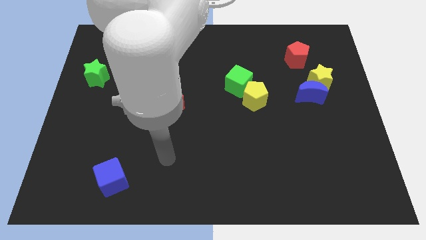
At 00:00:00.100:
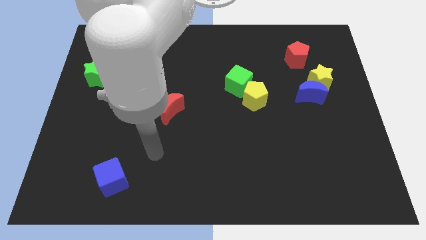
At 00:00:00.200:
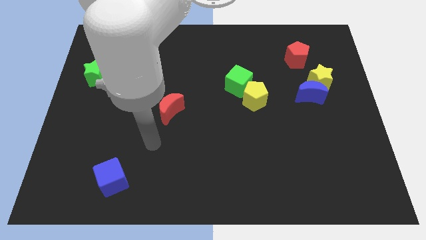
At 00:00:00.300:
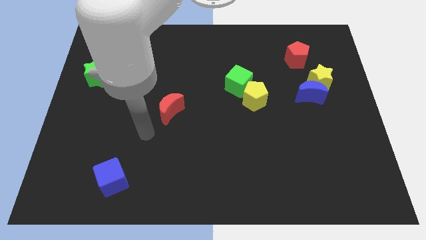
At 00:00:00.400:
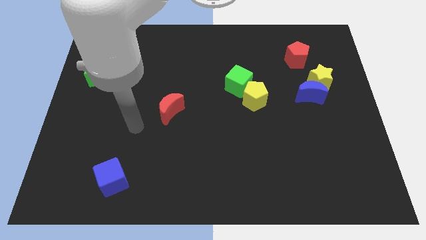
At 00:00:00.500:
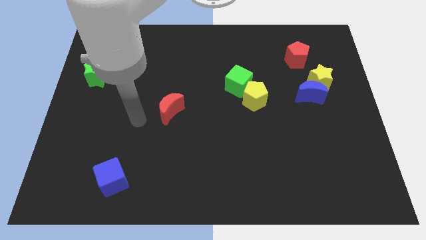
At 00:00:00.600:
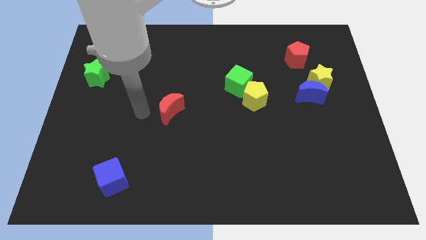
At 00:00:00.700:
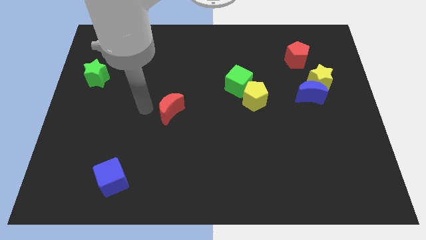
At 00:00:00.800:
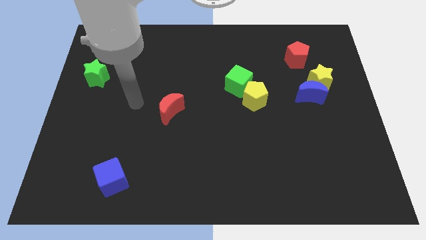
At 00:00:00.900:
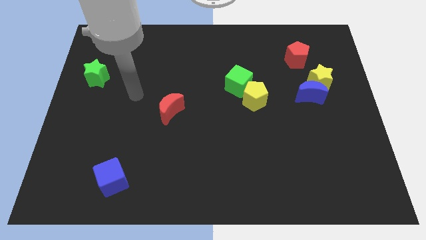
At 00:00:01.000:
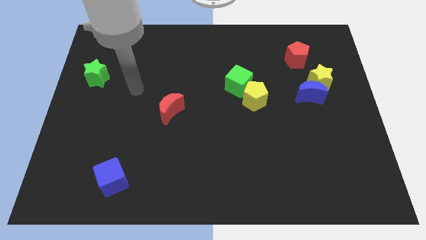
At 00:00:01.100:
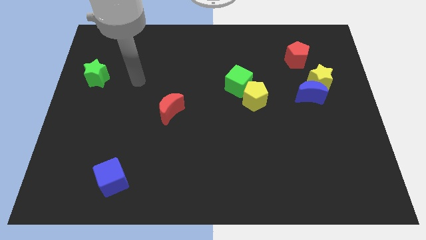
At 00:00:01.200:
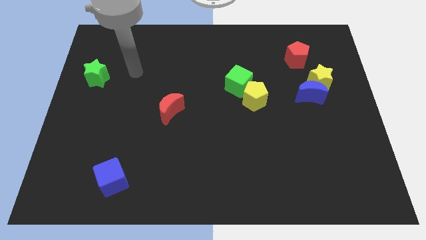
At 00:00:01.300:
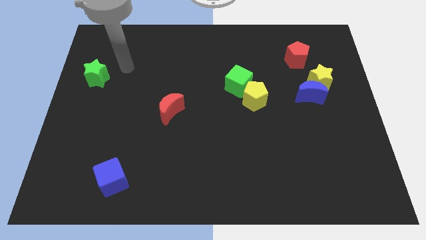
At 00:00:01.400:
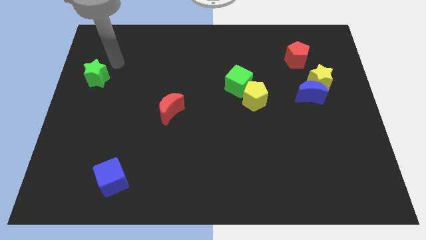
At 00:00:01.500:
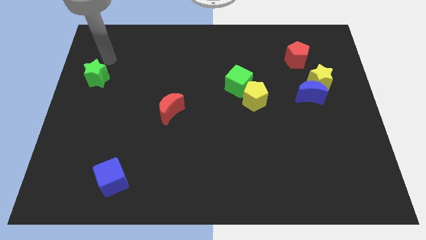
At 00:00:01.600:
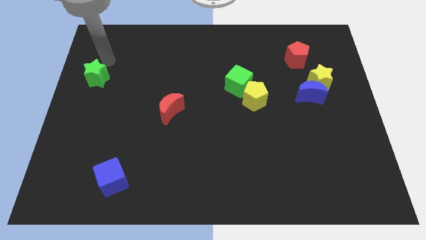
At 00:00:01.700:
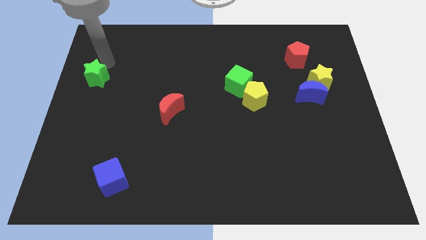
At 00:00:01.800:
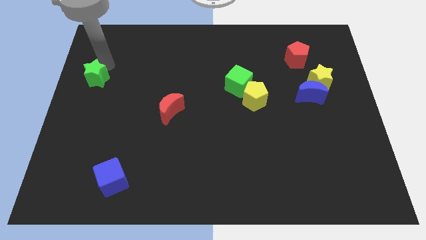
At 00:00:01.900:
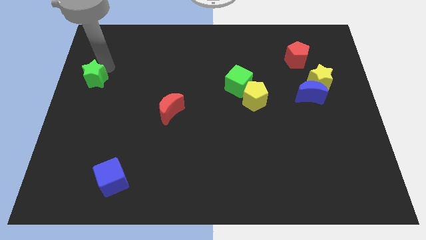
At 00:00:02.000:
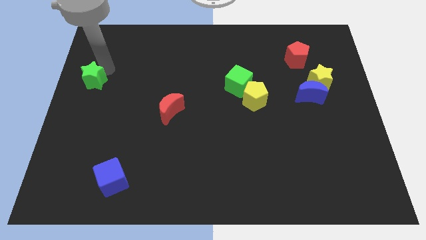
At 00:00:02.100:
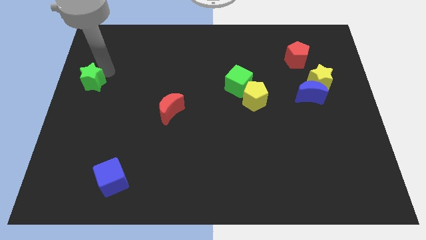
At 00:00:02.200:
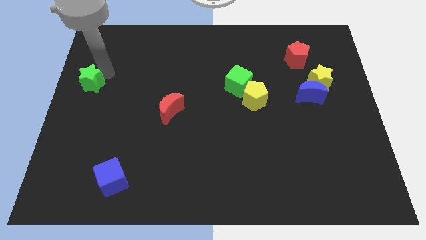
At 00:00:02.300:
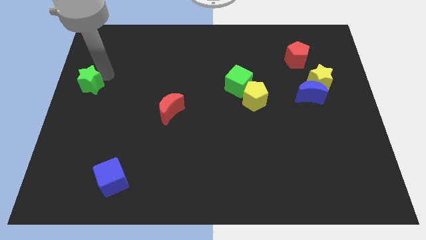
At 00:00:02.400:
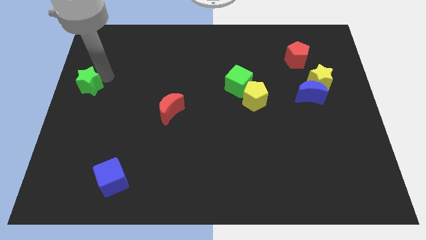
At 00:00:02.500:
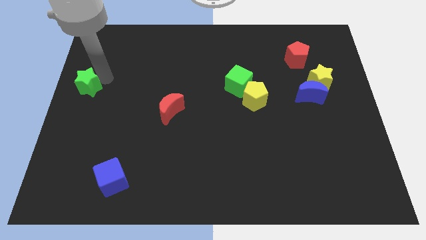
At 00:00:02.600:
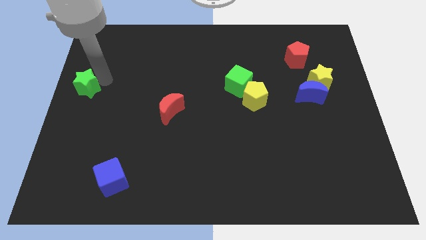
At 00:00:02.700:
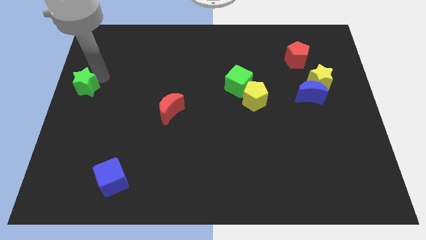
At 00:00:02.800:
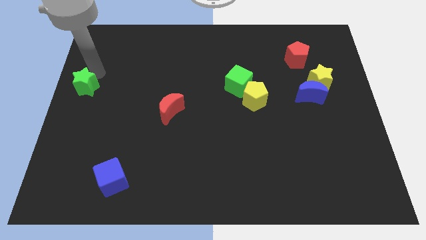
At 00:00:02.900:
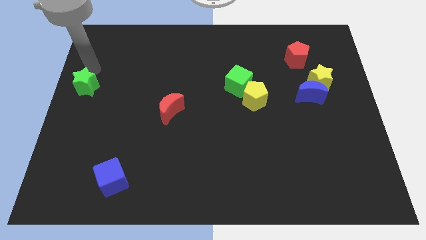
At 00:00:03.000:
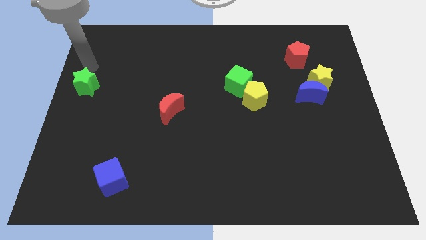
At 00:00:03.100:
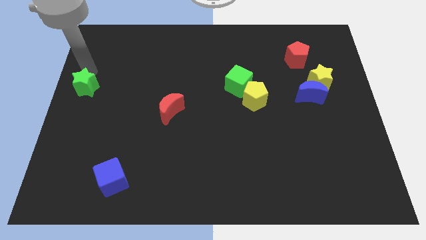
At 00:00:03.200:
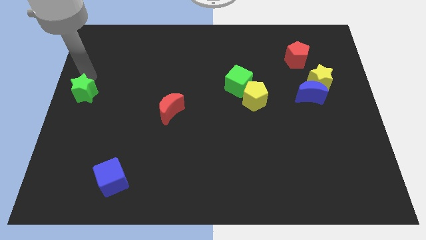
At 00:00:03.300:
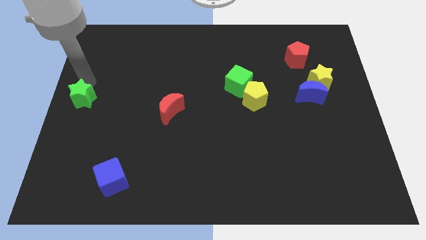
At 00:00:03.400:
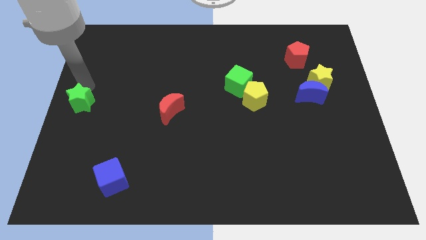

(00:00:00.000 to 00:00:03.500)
move the green star slightly down

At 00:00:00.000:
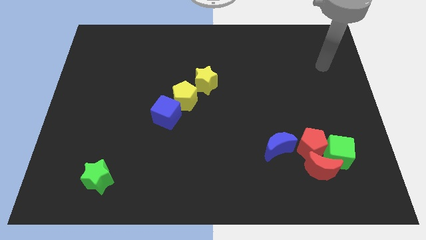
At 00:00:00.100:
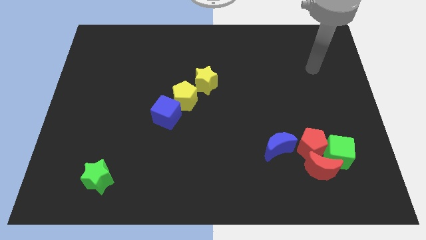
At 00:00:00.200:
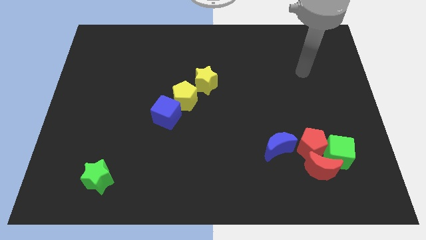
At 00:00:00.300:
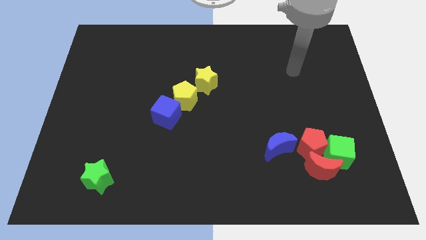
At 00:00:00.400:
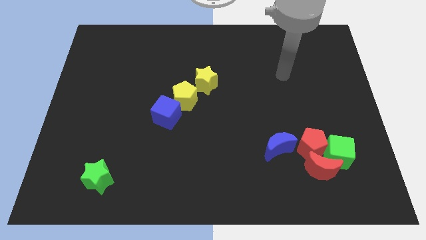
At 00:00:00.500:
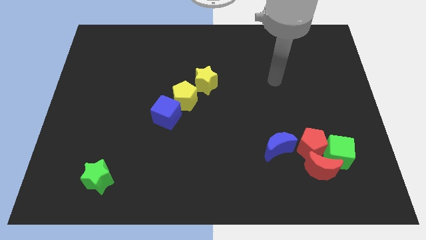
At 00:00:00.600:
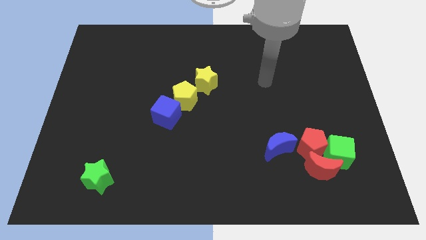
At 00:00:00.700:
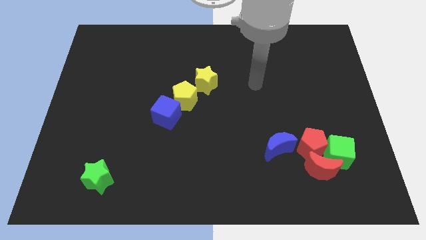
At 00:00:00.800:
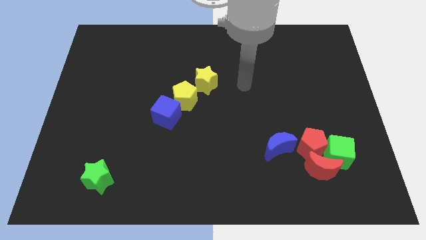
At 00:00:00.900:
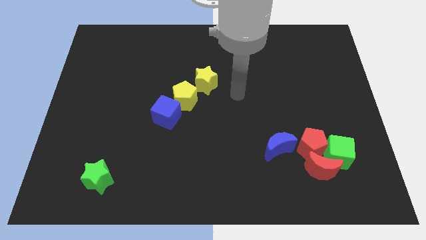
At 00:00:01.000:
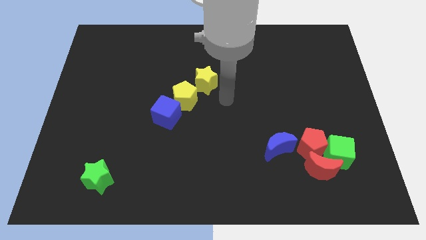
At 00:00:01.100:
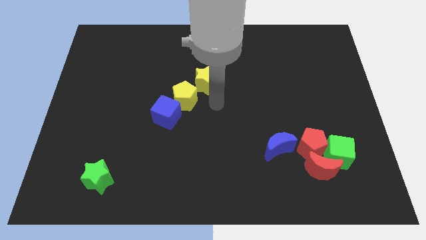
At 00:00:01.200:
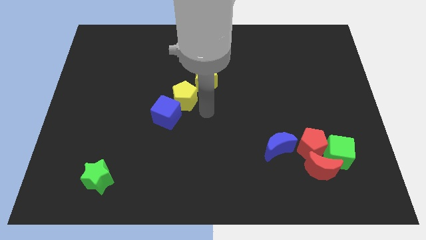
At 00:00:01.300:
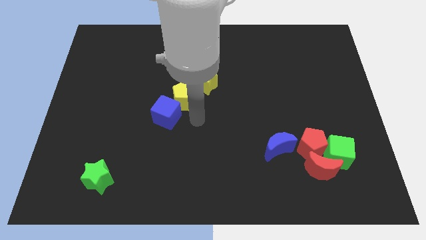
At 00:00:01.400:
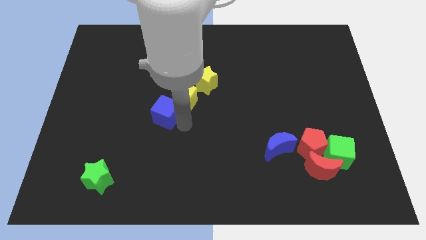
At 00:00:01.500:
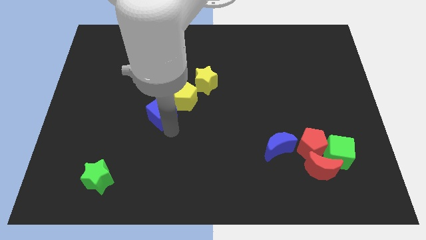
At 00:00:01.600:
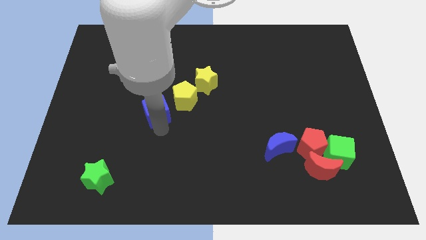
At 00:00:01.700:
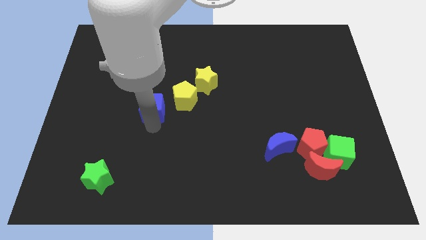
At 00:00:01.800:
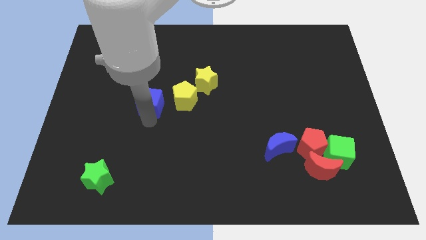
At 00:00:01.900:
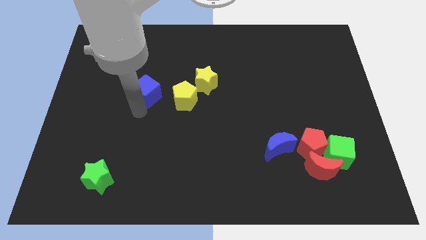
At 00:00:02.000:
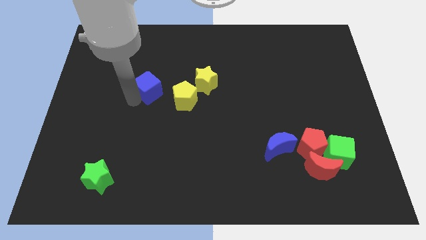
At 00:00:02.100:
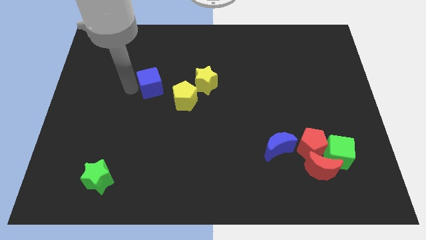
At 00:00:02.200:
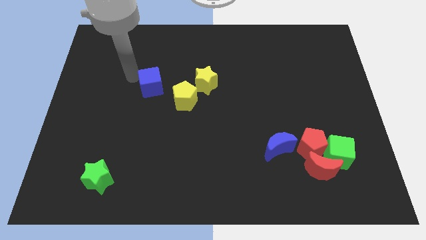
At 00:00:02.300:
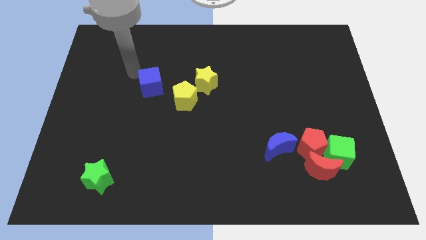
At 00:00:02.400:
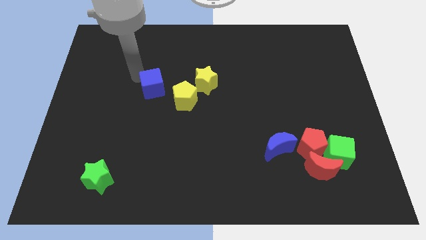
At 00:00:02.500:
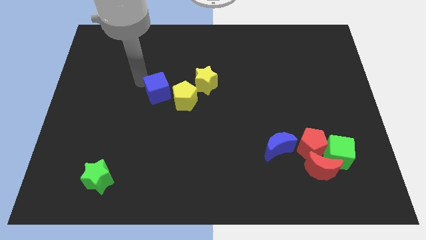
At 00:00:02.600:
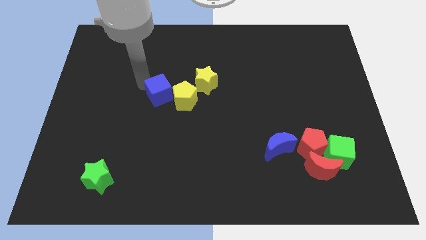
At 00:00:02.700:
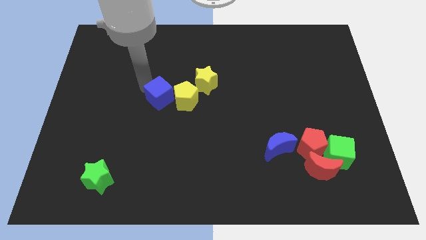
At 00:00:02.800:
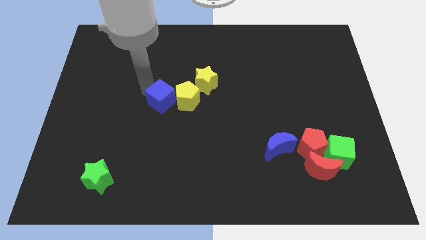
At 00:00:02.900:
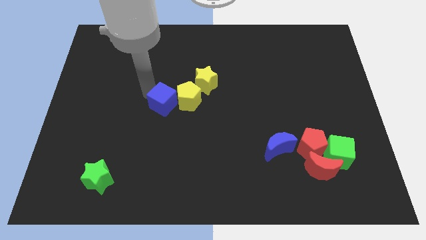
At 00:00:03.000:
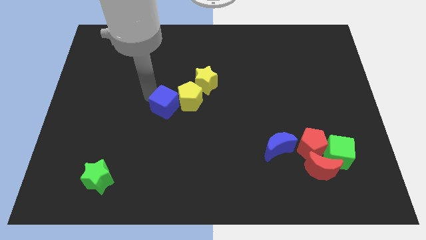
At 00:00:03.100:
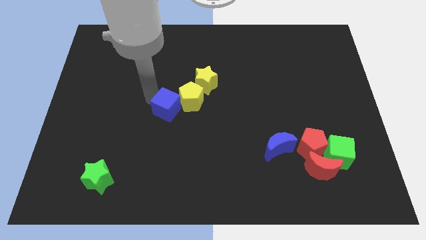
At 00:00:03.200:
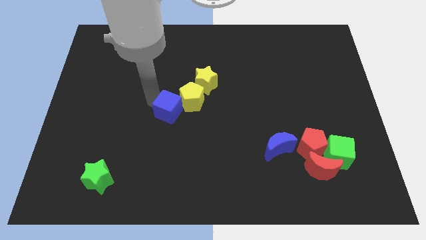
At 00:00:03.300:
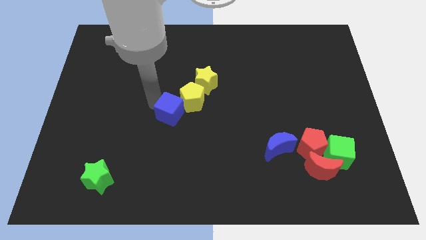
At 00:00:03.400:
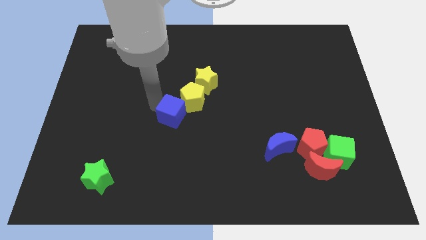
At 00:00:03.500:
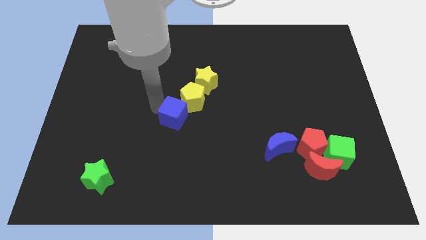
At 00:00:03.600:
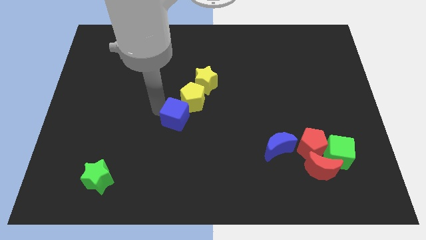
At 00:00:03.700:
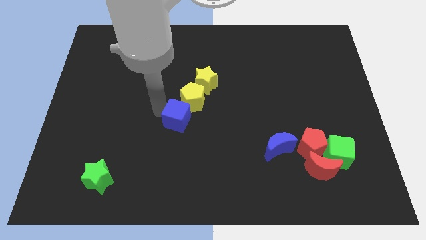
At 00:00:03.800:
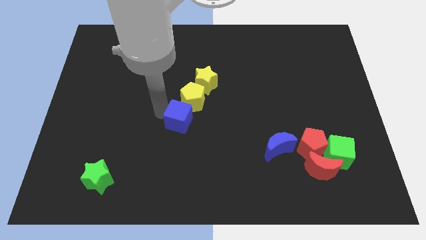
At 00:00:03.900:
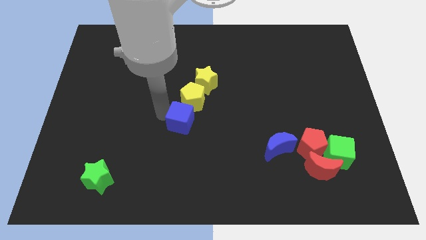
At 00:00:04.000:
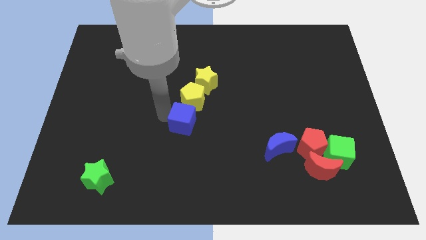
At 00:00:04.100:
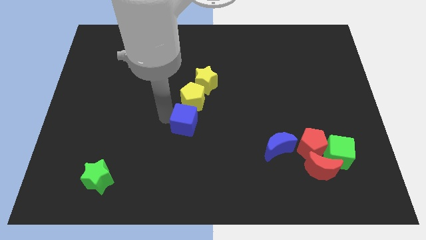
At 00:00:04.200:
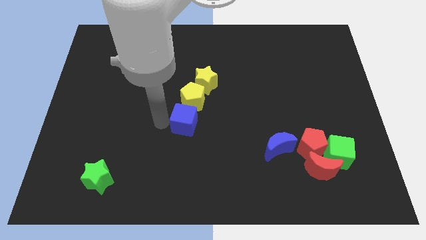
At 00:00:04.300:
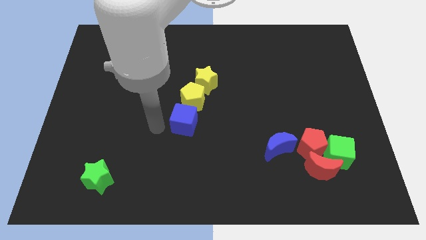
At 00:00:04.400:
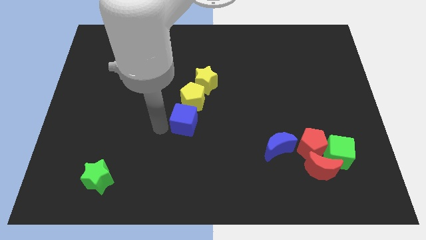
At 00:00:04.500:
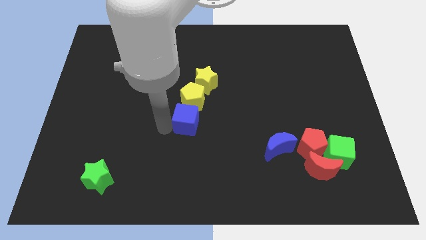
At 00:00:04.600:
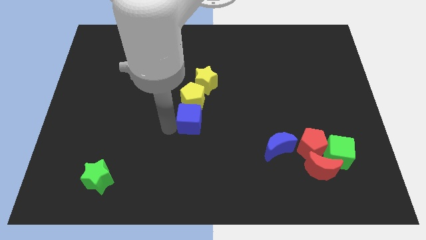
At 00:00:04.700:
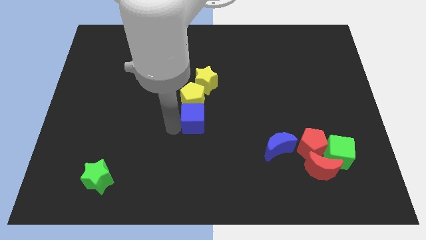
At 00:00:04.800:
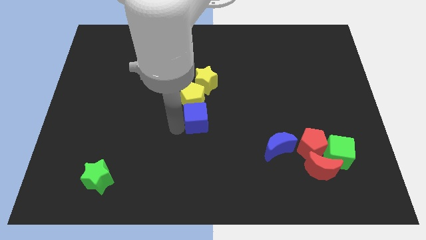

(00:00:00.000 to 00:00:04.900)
slide the blue cube right a bit
